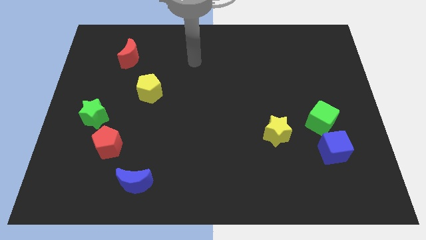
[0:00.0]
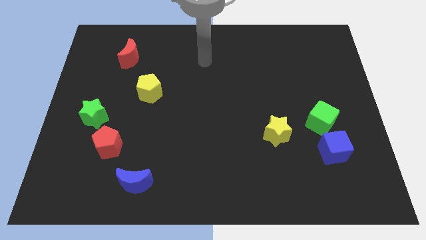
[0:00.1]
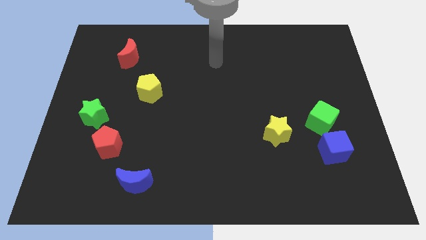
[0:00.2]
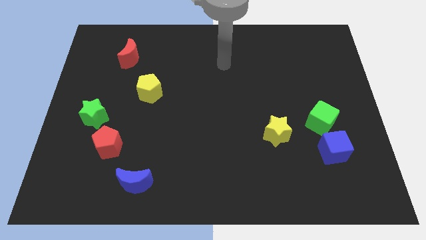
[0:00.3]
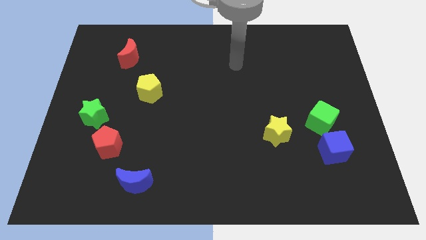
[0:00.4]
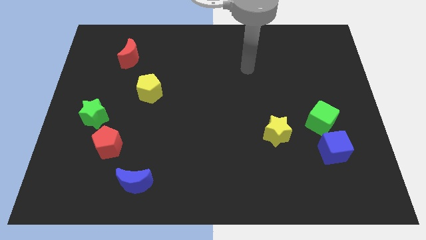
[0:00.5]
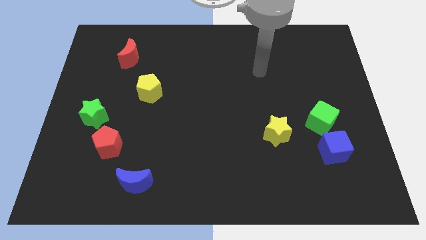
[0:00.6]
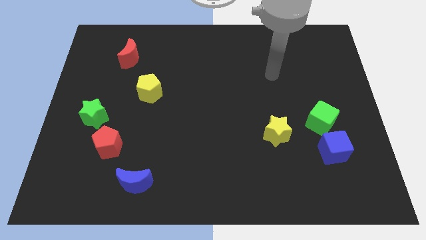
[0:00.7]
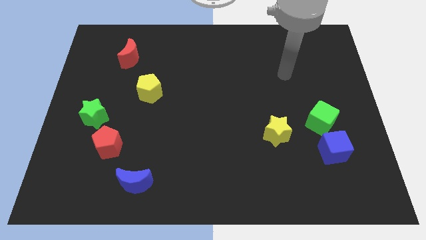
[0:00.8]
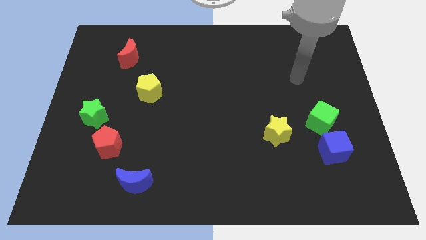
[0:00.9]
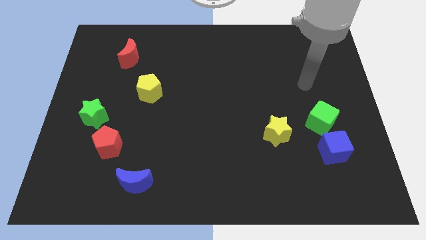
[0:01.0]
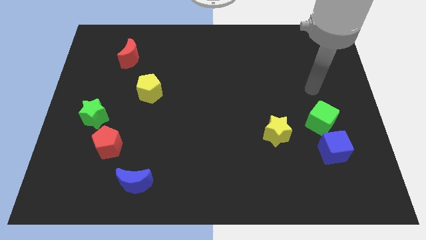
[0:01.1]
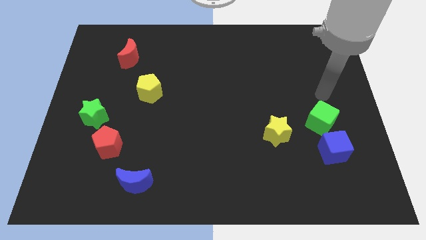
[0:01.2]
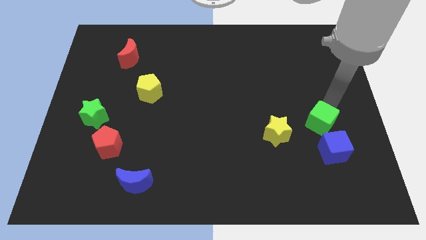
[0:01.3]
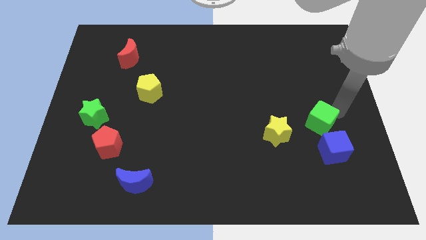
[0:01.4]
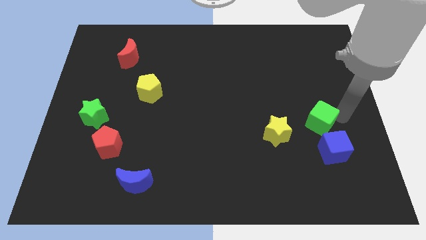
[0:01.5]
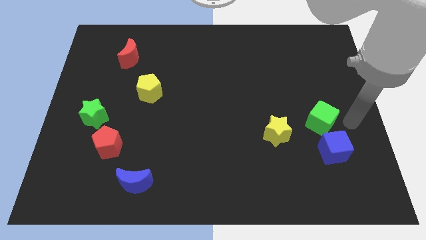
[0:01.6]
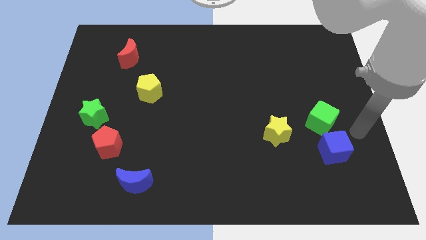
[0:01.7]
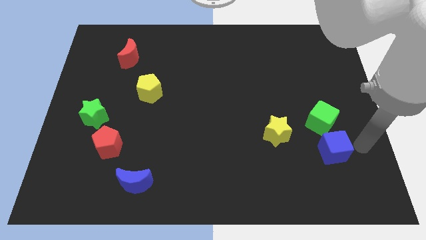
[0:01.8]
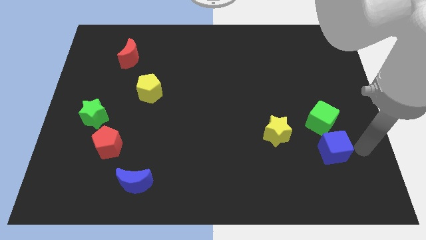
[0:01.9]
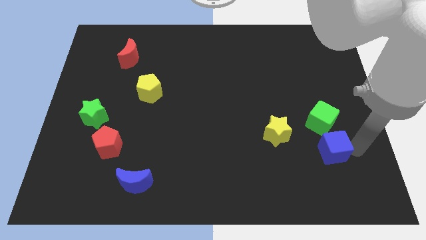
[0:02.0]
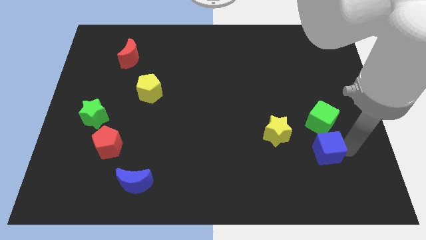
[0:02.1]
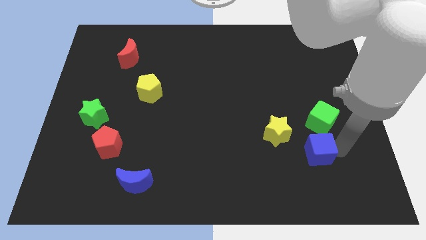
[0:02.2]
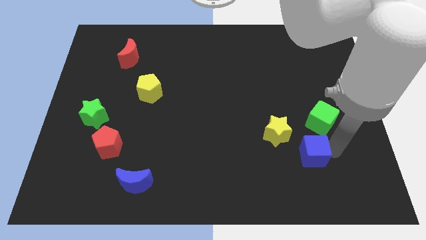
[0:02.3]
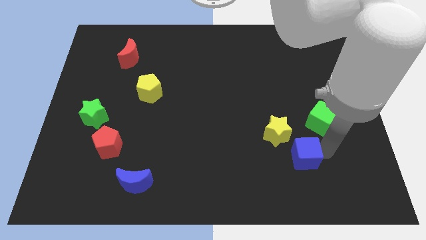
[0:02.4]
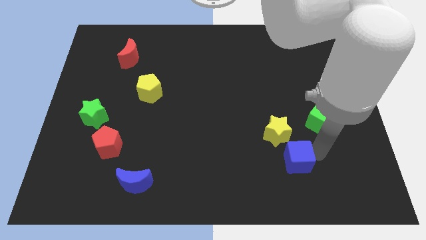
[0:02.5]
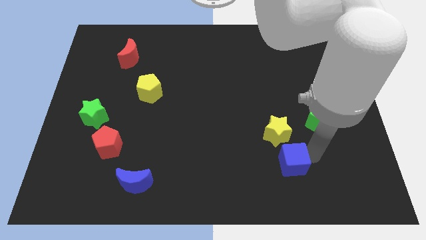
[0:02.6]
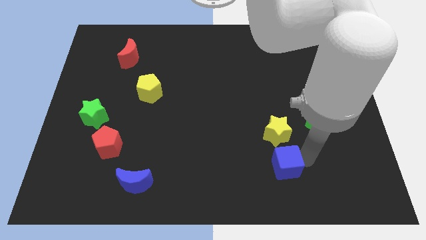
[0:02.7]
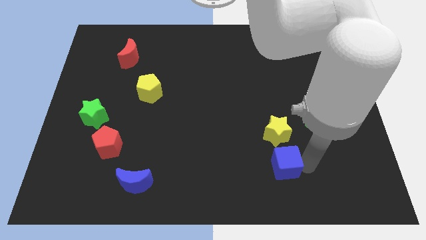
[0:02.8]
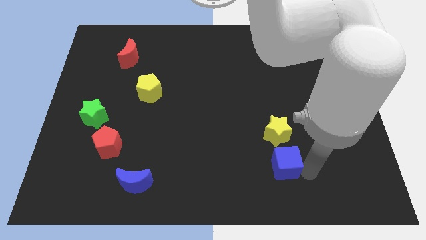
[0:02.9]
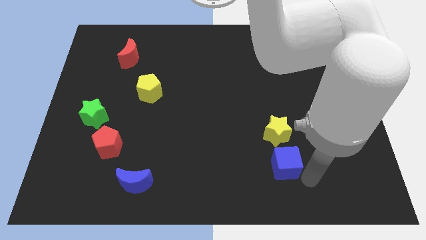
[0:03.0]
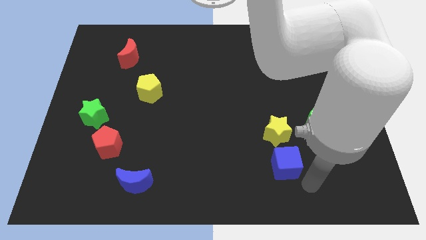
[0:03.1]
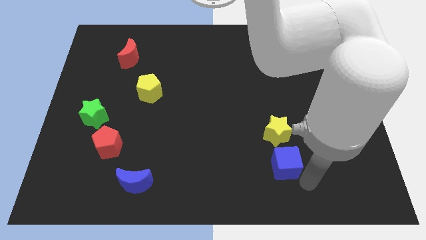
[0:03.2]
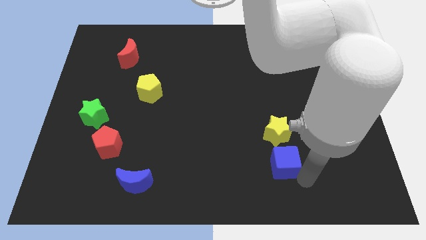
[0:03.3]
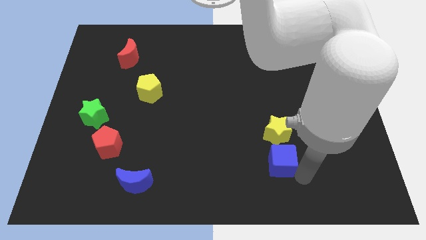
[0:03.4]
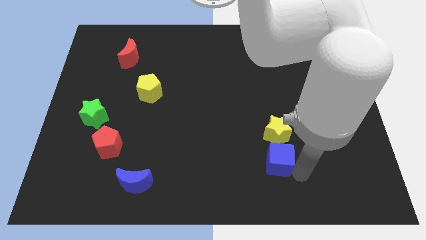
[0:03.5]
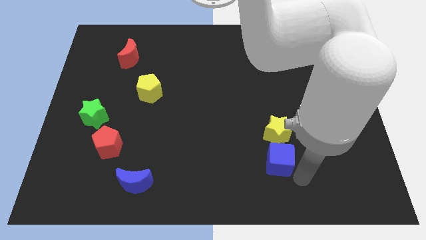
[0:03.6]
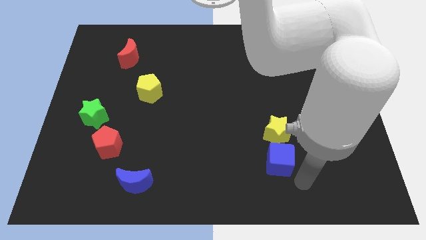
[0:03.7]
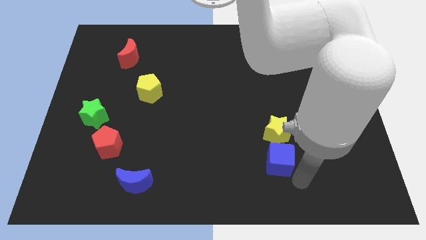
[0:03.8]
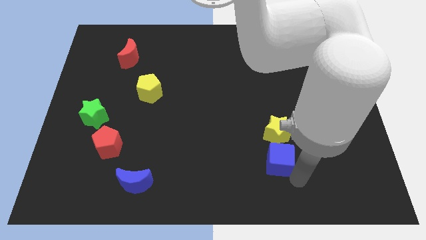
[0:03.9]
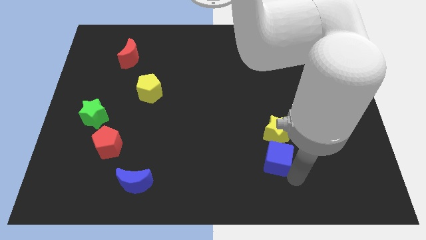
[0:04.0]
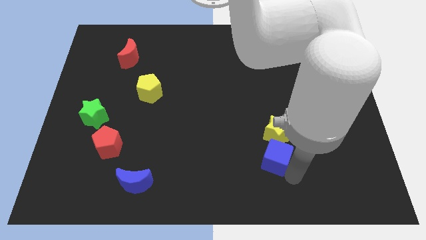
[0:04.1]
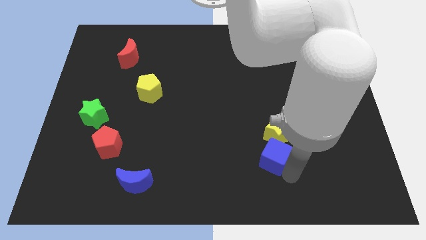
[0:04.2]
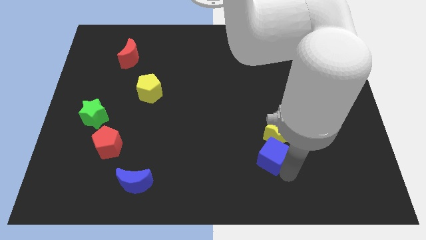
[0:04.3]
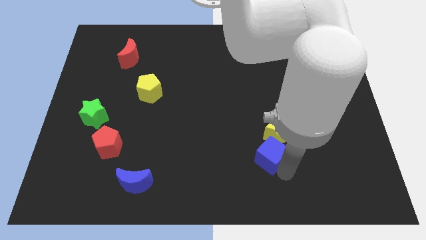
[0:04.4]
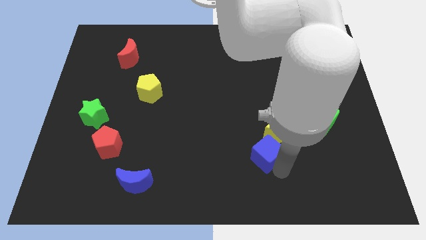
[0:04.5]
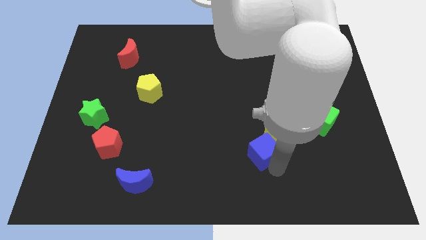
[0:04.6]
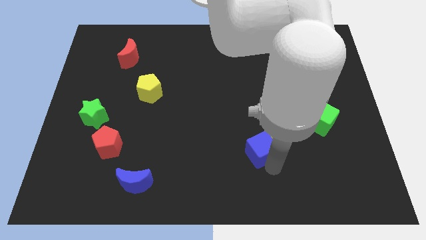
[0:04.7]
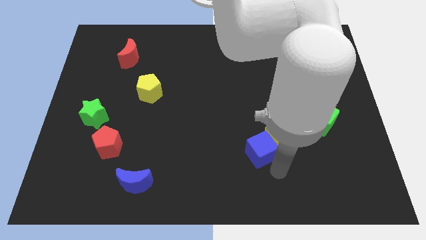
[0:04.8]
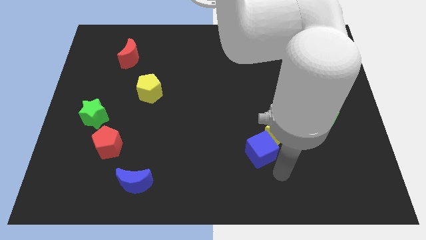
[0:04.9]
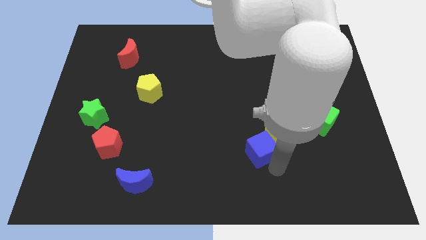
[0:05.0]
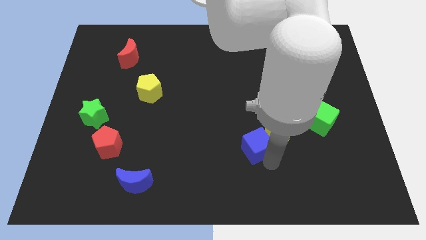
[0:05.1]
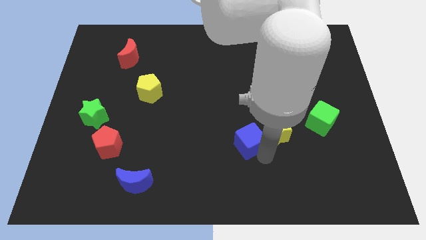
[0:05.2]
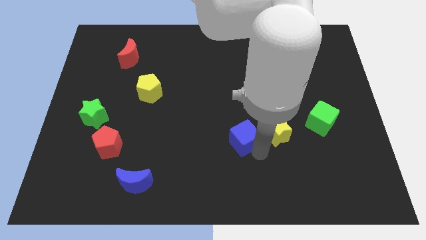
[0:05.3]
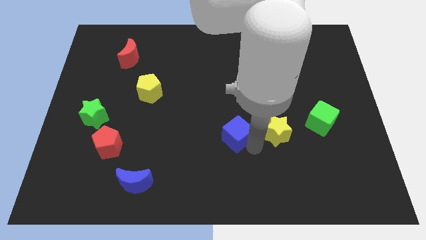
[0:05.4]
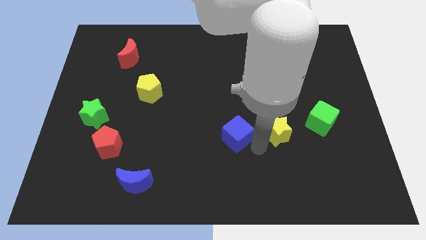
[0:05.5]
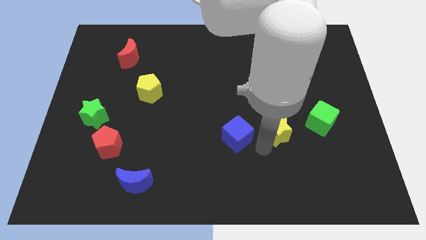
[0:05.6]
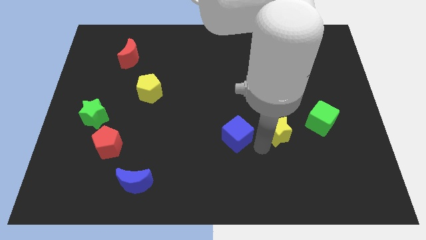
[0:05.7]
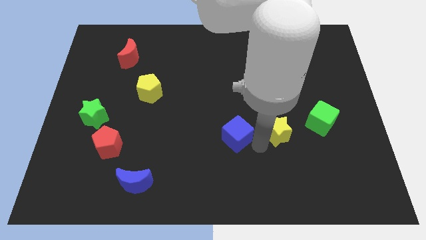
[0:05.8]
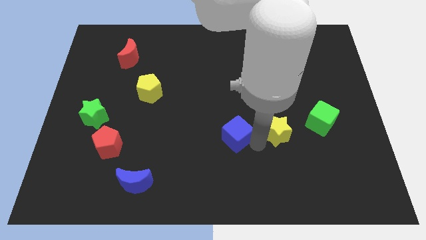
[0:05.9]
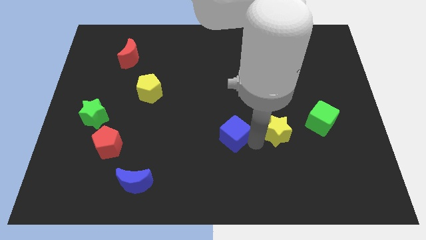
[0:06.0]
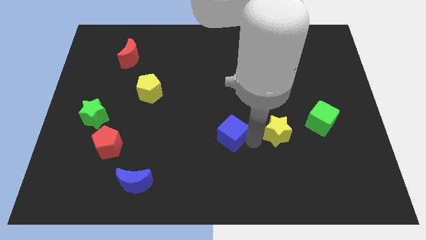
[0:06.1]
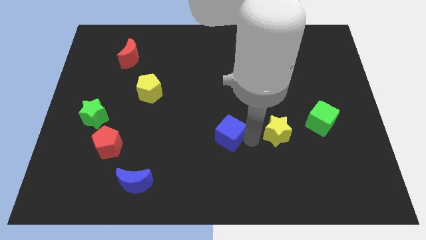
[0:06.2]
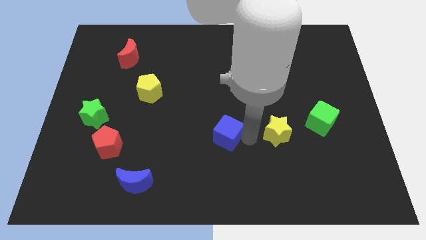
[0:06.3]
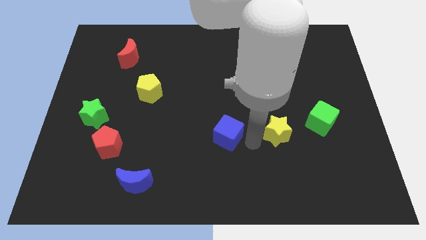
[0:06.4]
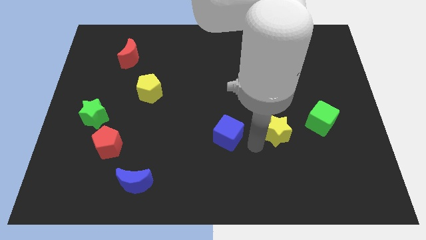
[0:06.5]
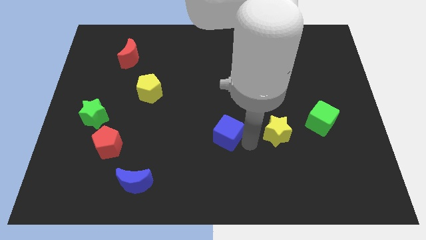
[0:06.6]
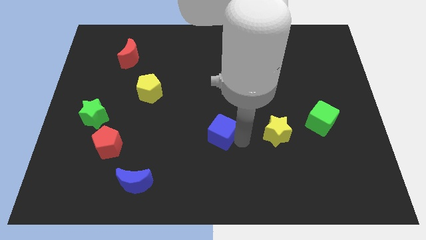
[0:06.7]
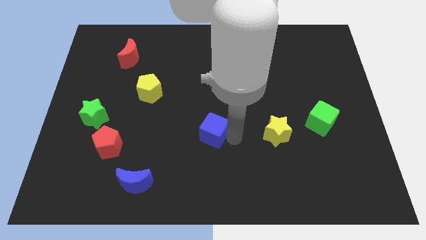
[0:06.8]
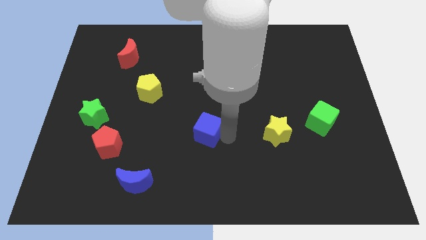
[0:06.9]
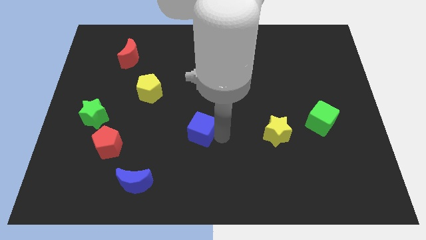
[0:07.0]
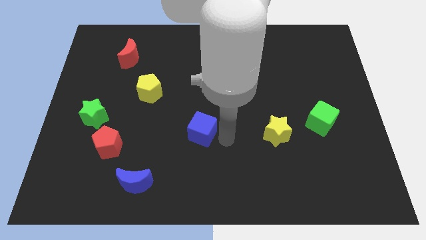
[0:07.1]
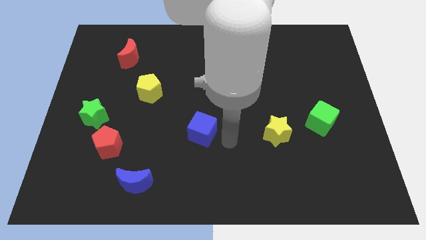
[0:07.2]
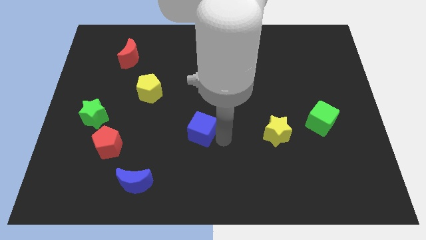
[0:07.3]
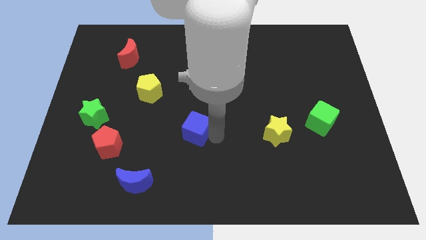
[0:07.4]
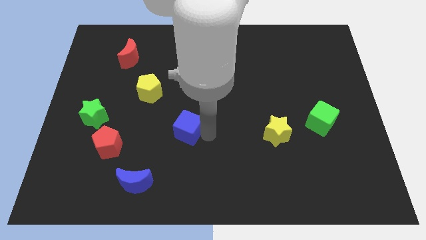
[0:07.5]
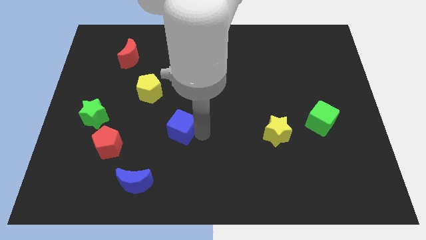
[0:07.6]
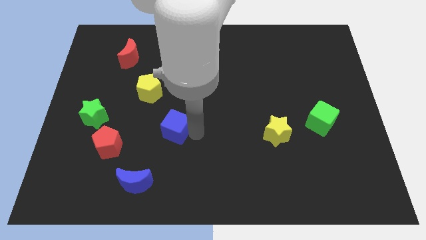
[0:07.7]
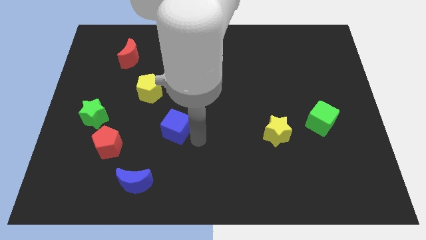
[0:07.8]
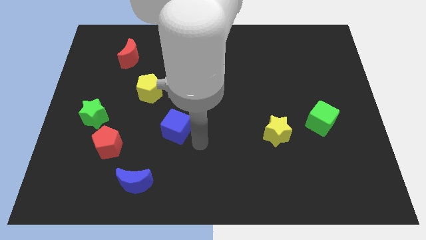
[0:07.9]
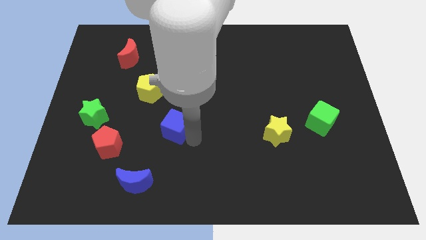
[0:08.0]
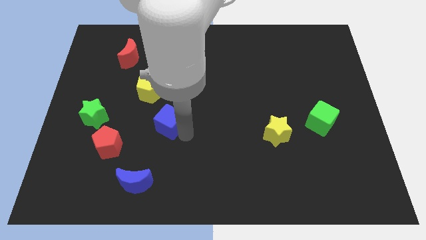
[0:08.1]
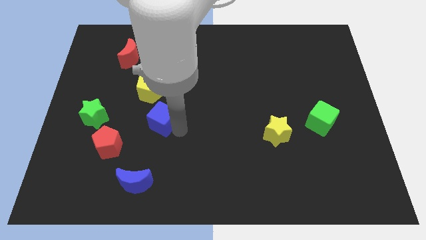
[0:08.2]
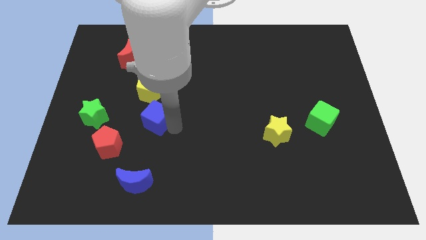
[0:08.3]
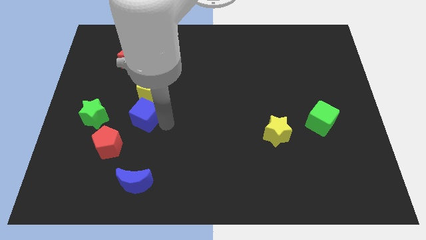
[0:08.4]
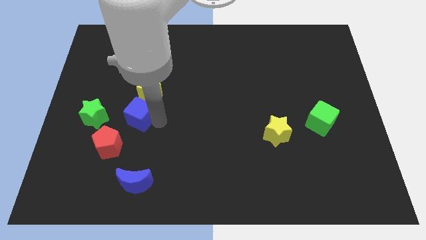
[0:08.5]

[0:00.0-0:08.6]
put the blue cube to the bottom left side of the yellow pentagon
